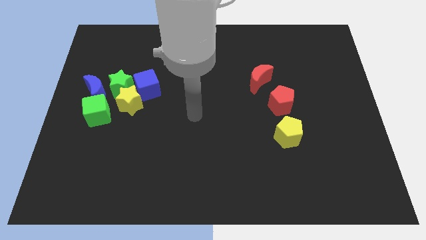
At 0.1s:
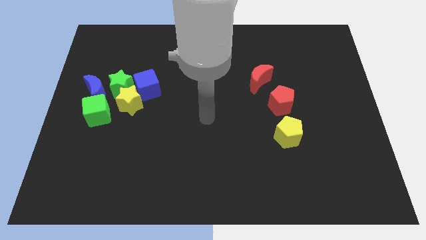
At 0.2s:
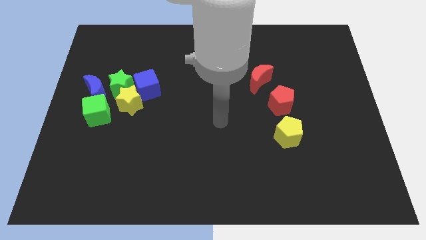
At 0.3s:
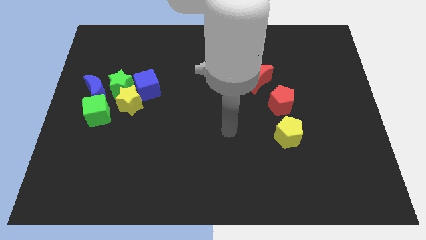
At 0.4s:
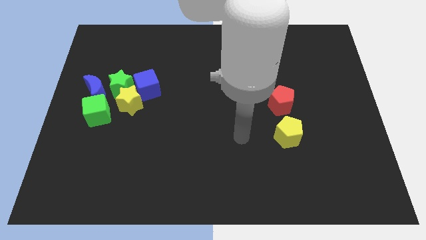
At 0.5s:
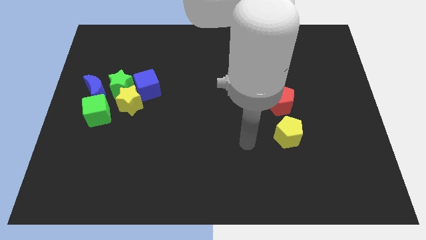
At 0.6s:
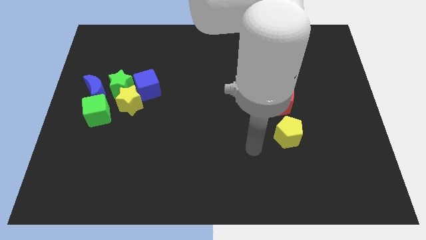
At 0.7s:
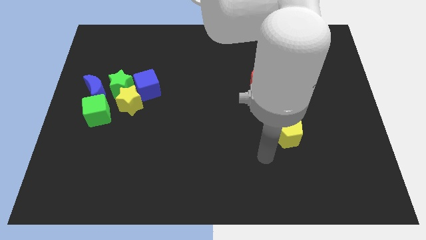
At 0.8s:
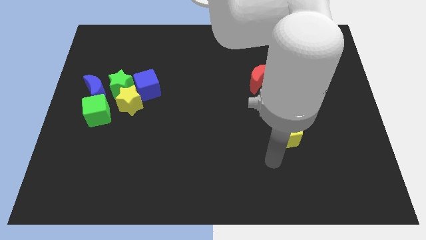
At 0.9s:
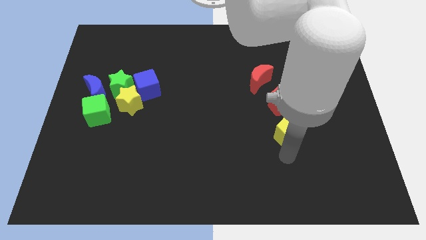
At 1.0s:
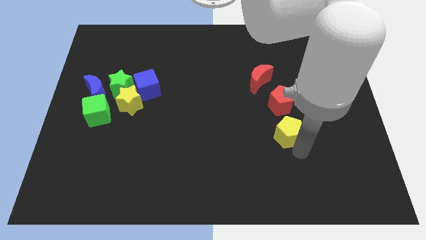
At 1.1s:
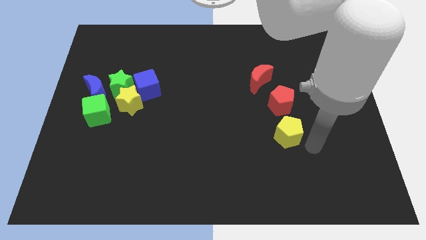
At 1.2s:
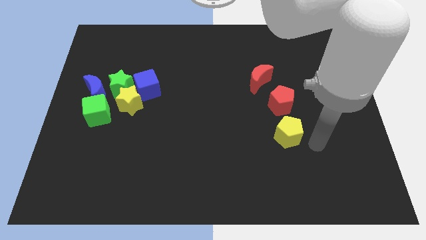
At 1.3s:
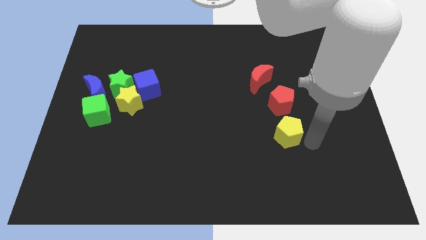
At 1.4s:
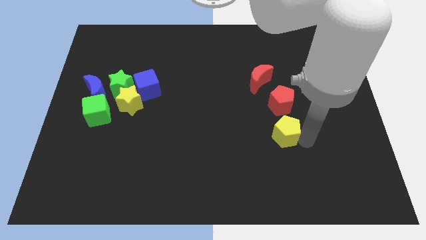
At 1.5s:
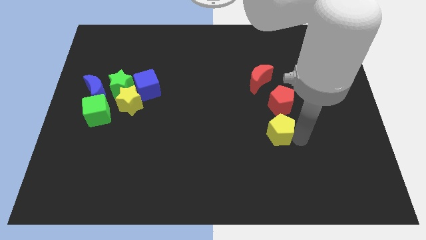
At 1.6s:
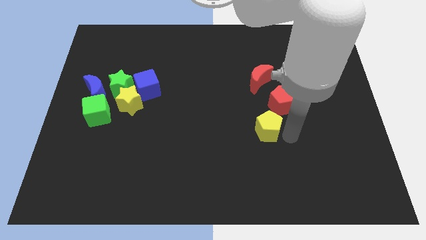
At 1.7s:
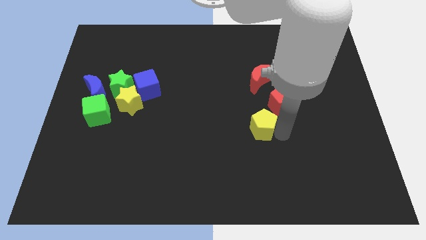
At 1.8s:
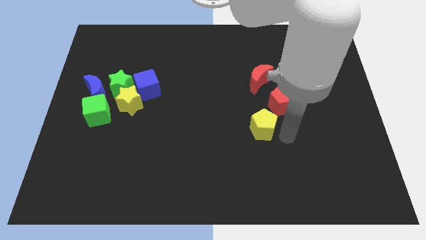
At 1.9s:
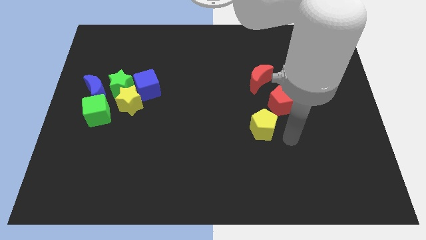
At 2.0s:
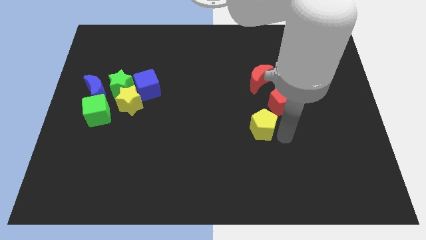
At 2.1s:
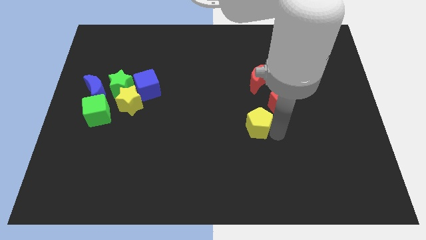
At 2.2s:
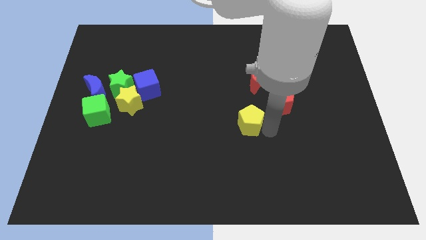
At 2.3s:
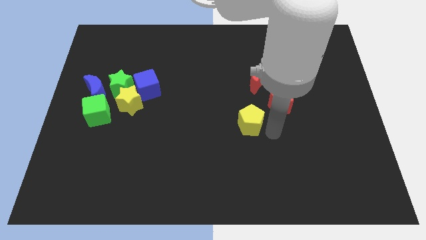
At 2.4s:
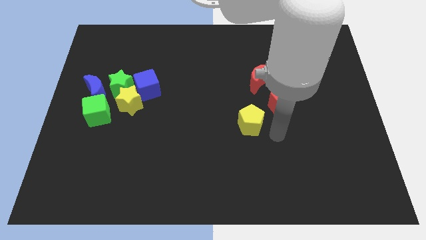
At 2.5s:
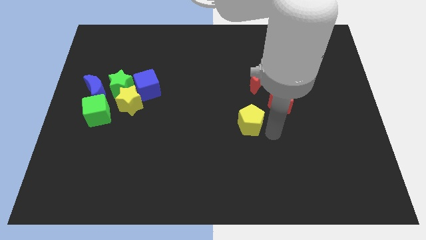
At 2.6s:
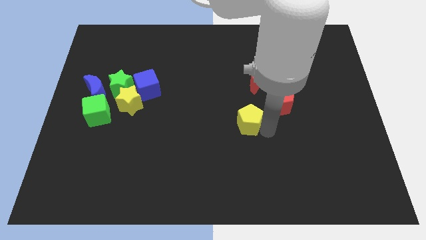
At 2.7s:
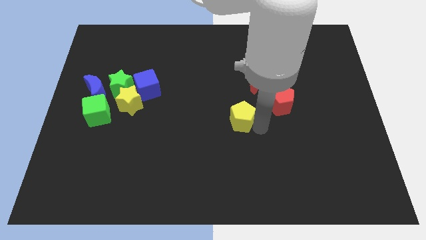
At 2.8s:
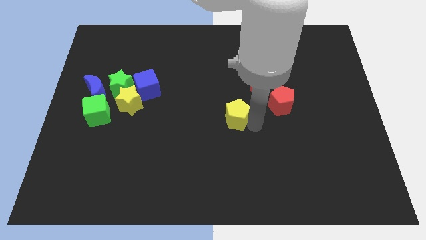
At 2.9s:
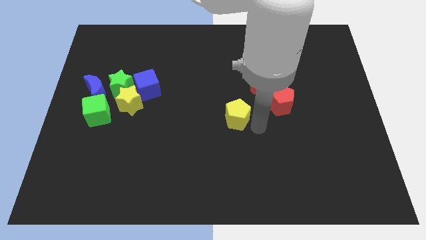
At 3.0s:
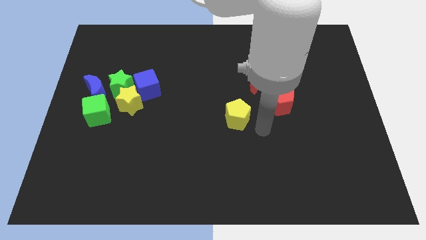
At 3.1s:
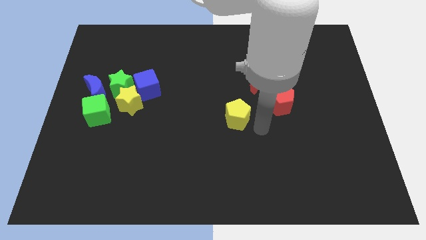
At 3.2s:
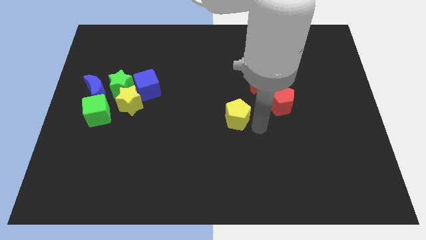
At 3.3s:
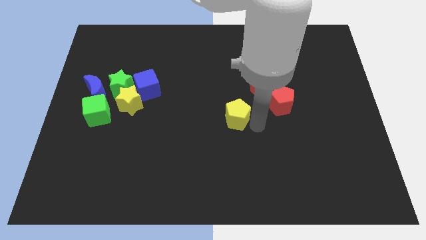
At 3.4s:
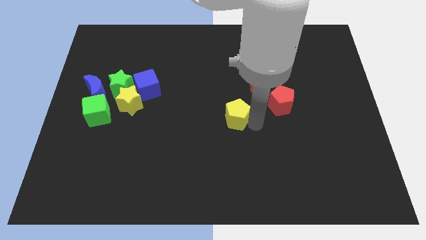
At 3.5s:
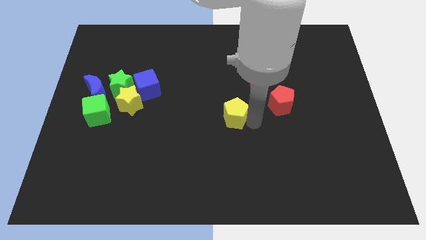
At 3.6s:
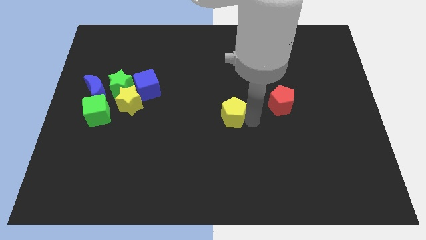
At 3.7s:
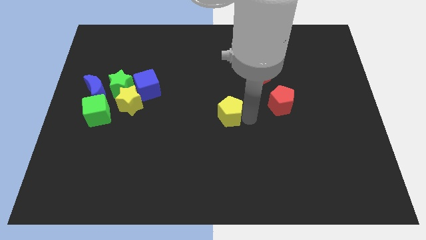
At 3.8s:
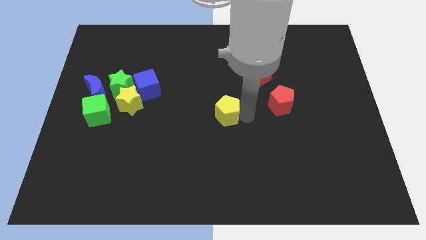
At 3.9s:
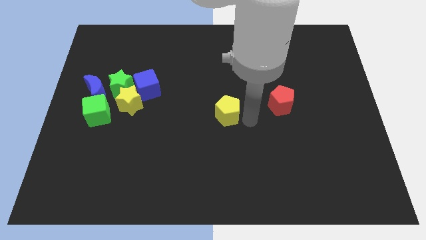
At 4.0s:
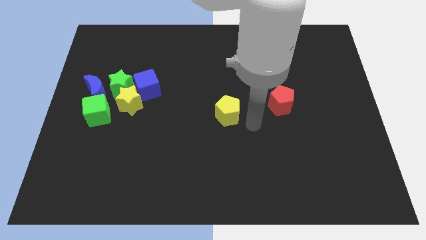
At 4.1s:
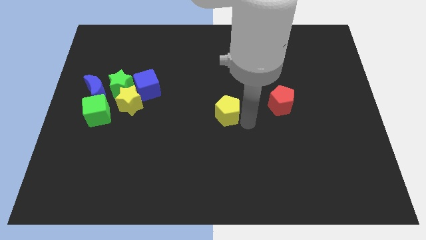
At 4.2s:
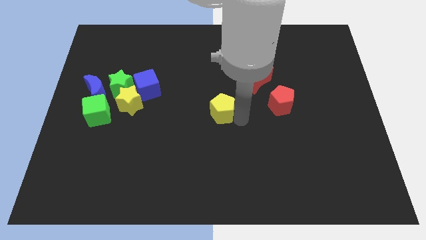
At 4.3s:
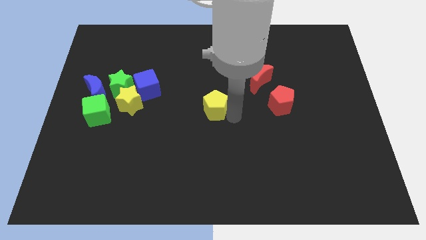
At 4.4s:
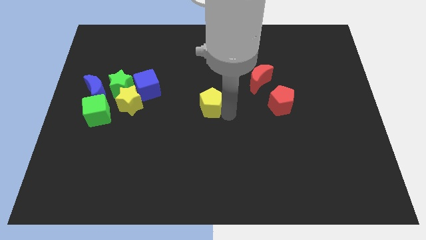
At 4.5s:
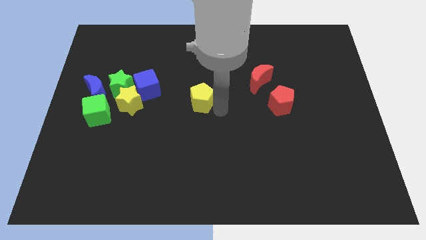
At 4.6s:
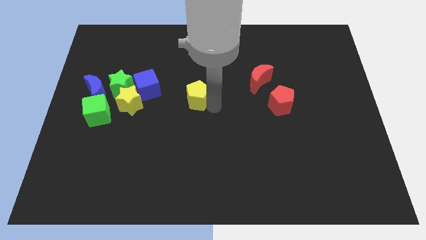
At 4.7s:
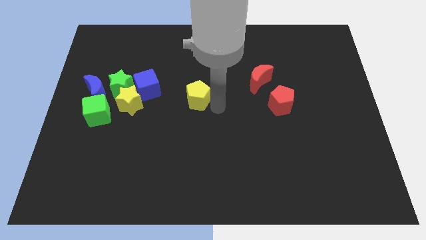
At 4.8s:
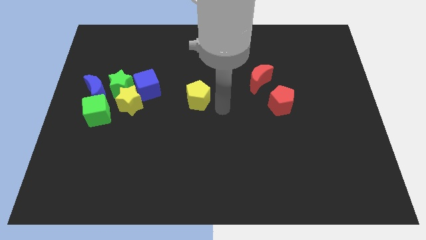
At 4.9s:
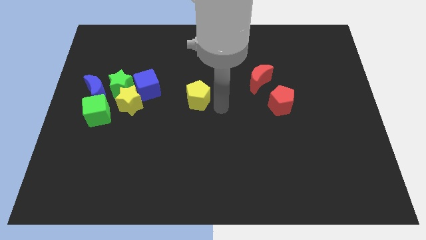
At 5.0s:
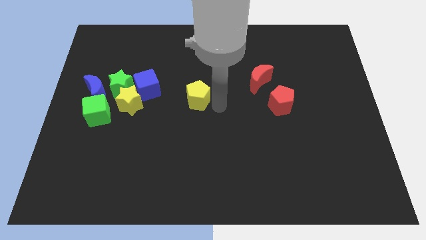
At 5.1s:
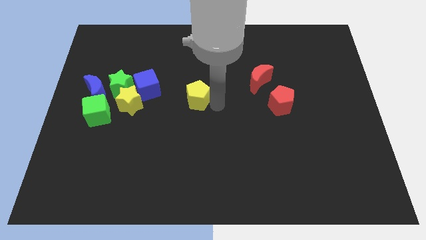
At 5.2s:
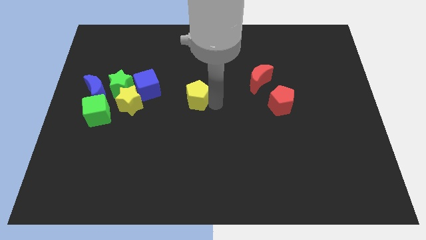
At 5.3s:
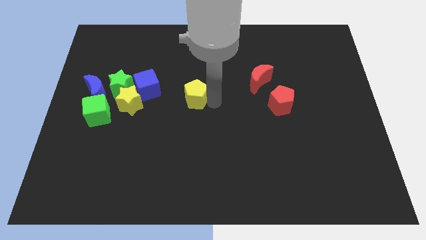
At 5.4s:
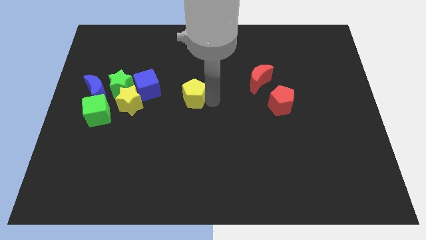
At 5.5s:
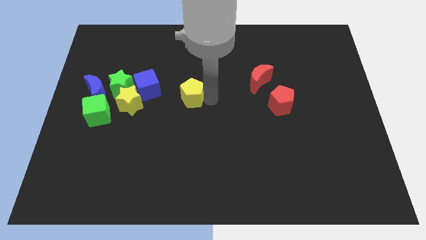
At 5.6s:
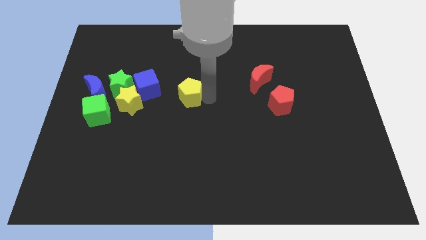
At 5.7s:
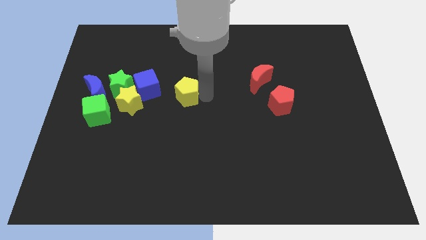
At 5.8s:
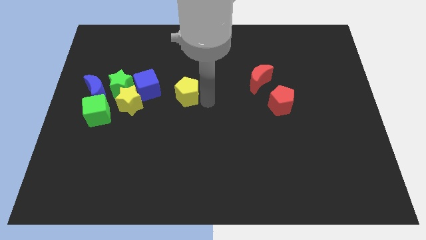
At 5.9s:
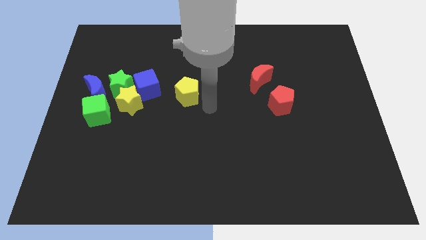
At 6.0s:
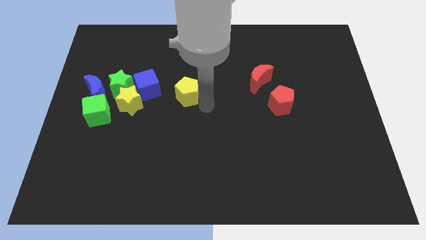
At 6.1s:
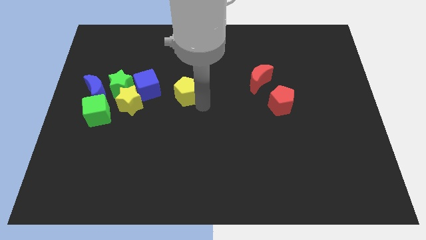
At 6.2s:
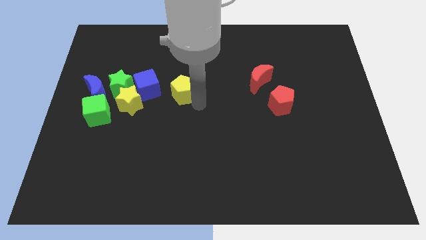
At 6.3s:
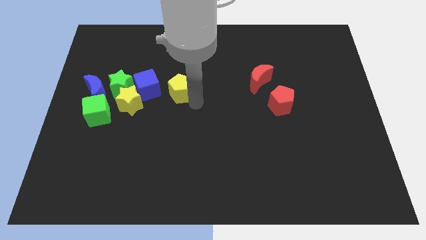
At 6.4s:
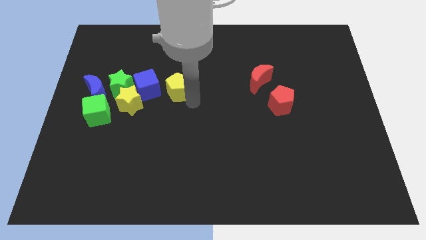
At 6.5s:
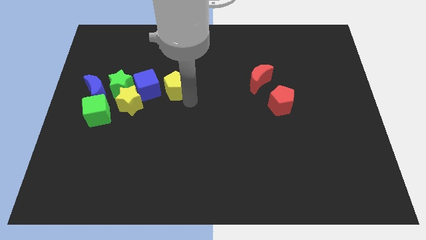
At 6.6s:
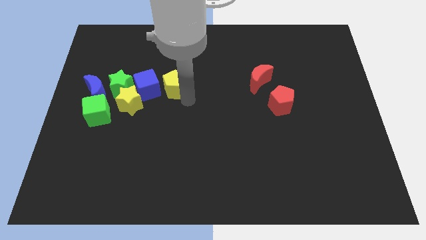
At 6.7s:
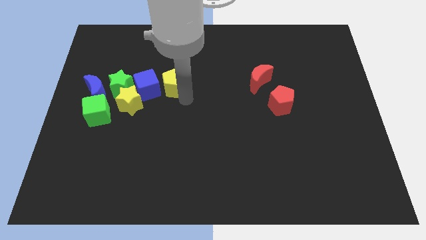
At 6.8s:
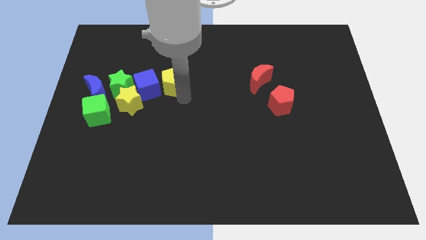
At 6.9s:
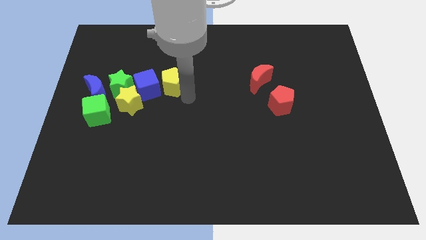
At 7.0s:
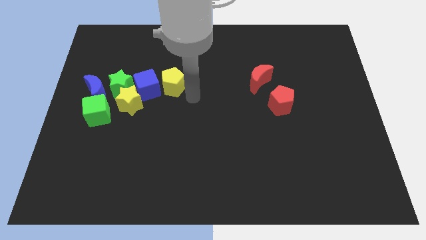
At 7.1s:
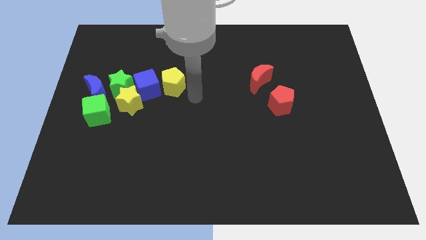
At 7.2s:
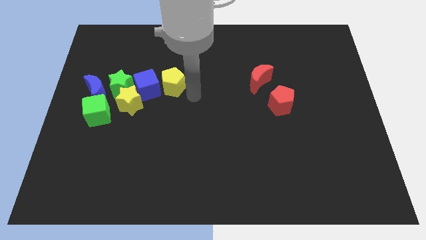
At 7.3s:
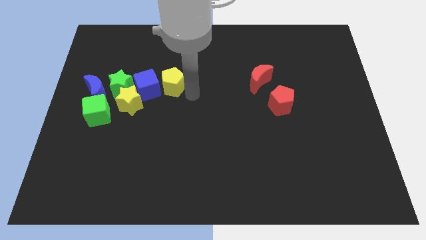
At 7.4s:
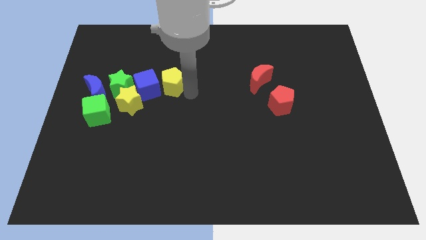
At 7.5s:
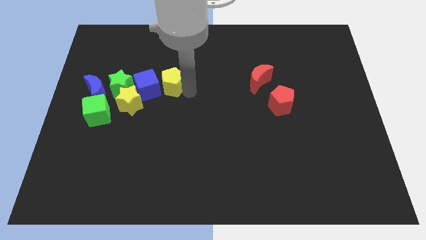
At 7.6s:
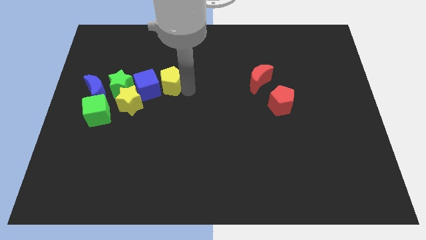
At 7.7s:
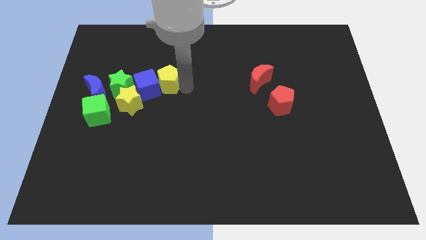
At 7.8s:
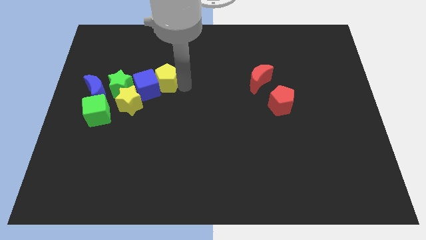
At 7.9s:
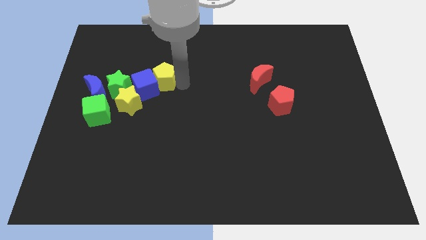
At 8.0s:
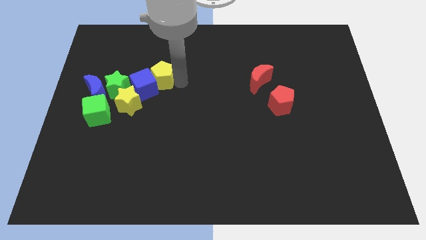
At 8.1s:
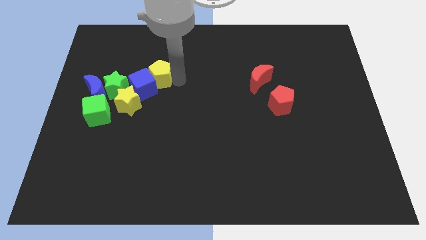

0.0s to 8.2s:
put the yellow pentagon diagonally up and to the right of the green star
